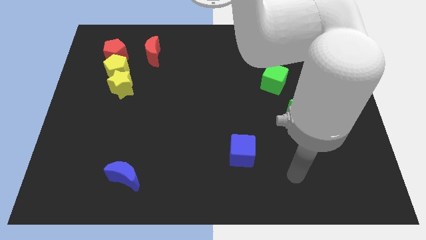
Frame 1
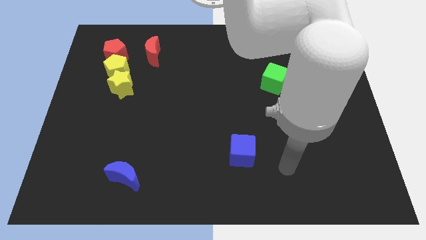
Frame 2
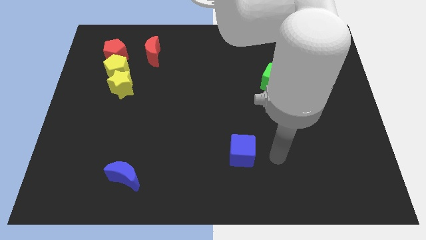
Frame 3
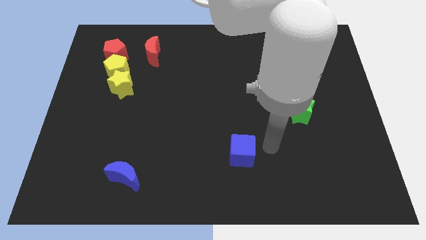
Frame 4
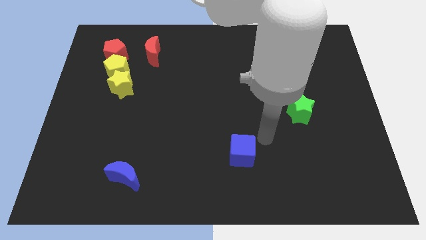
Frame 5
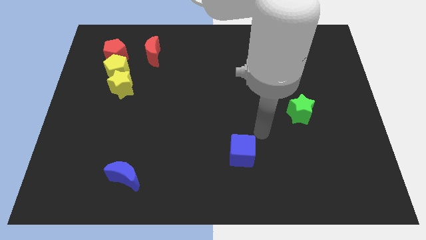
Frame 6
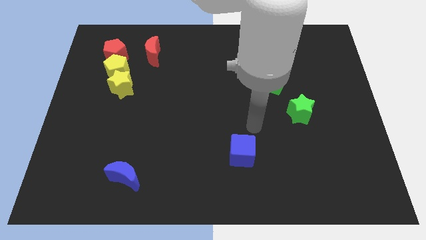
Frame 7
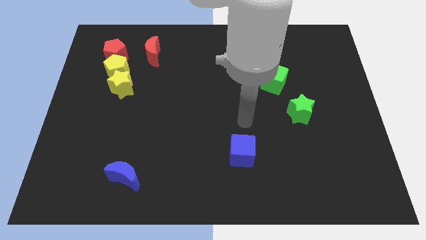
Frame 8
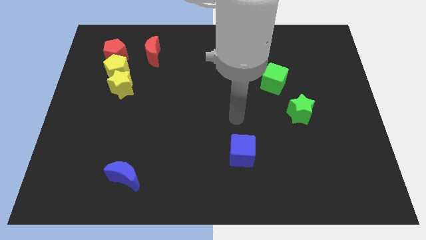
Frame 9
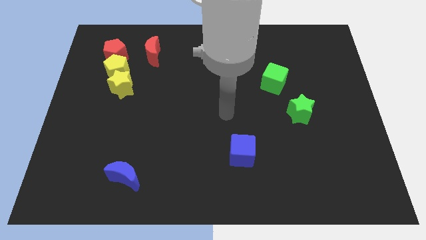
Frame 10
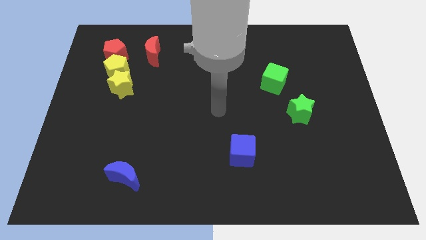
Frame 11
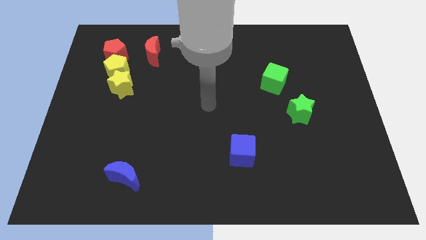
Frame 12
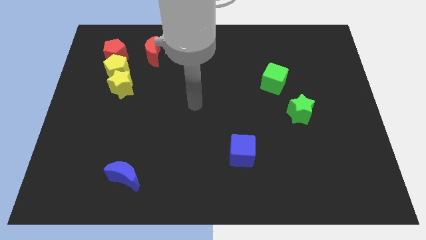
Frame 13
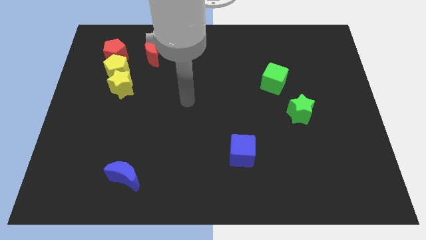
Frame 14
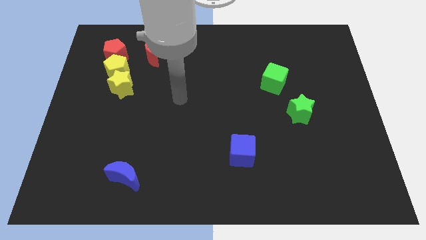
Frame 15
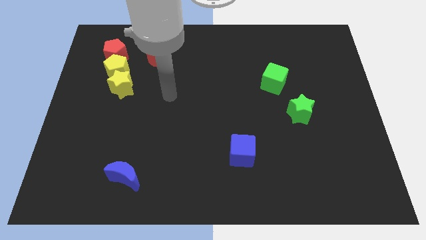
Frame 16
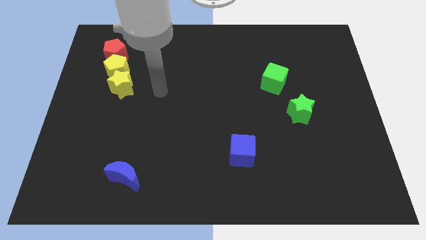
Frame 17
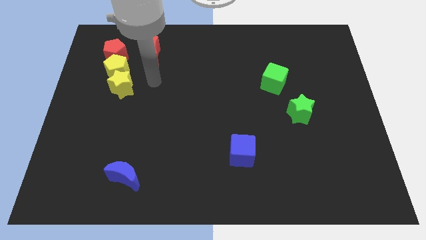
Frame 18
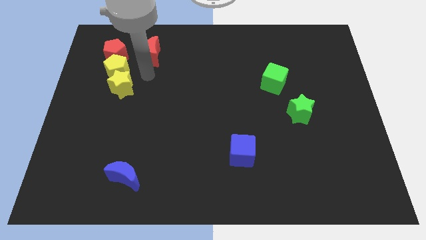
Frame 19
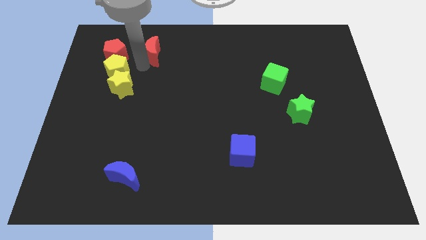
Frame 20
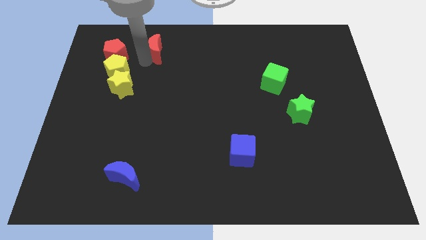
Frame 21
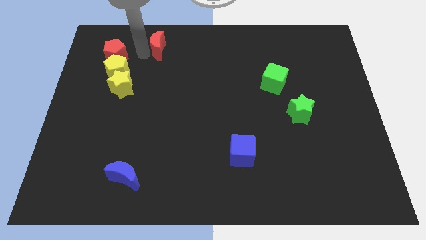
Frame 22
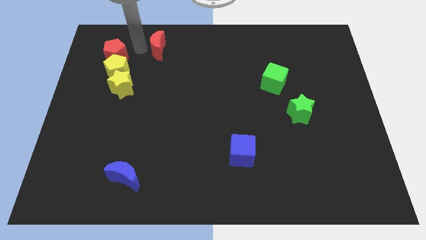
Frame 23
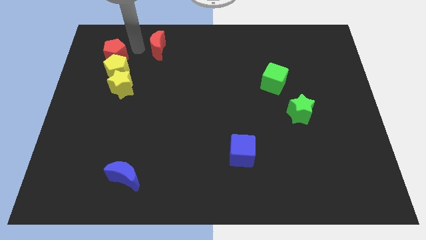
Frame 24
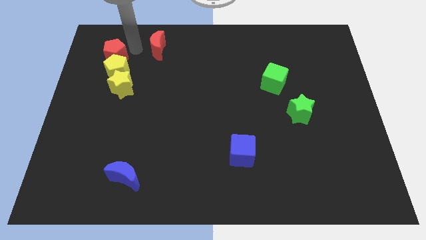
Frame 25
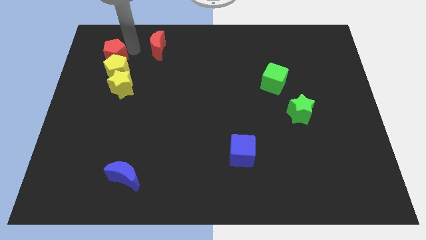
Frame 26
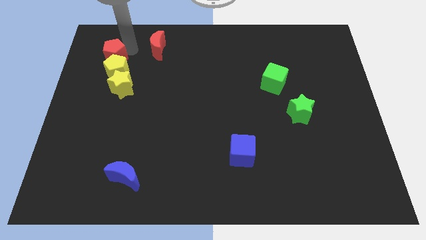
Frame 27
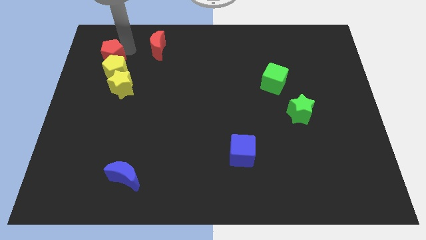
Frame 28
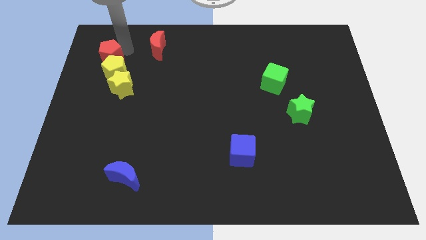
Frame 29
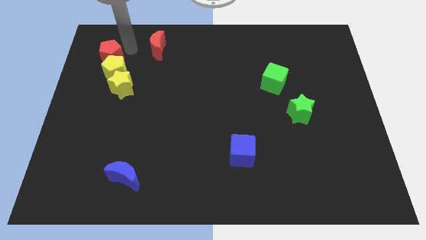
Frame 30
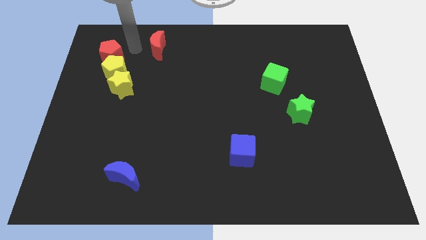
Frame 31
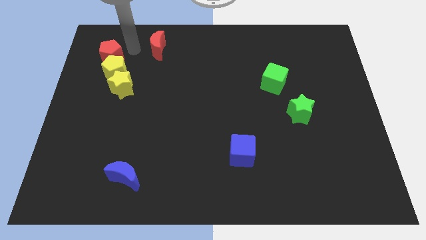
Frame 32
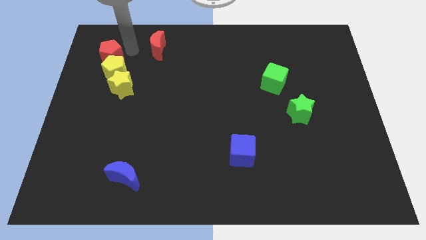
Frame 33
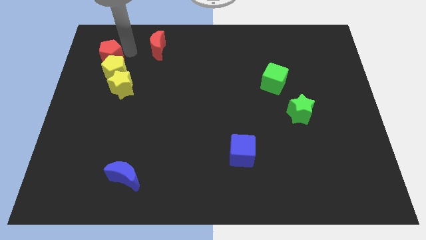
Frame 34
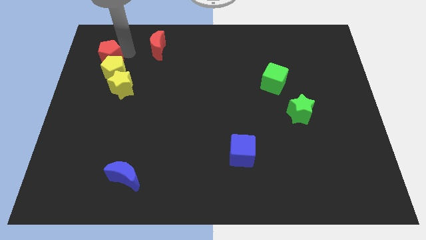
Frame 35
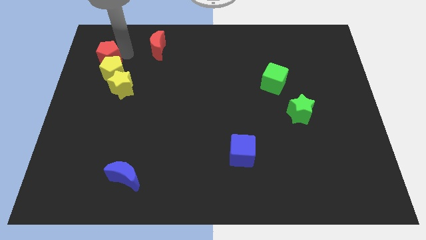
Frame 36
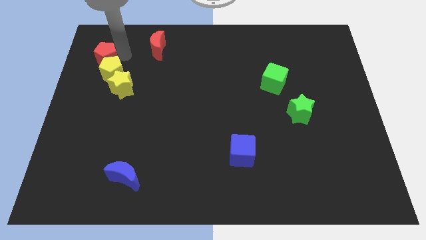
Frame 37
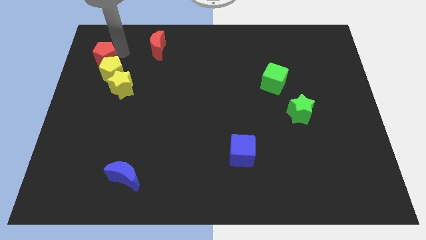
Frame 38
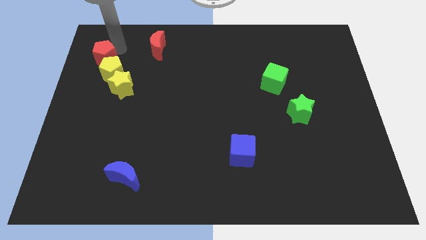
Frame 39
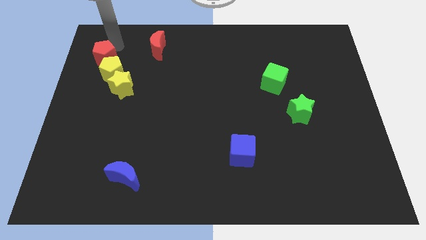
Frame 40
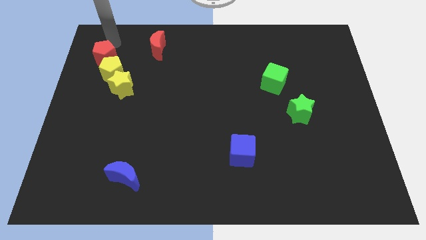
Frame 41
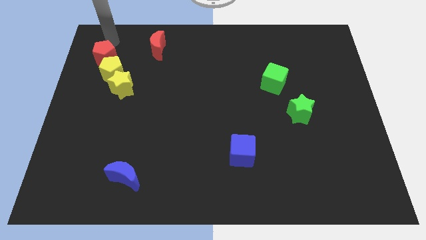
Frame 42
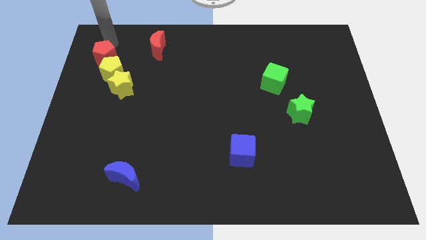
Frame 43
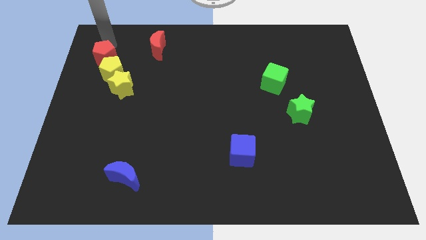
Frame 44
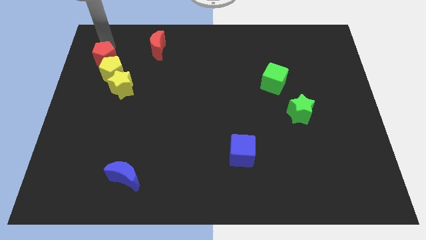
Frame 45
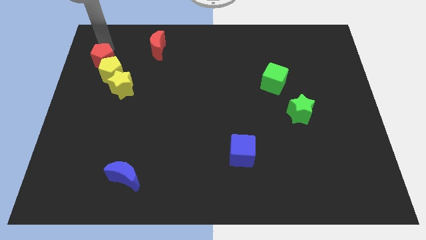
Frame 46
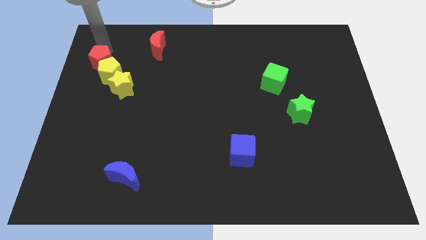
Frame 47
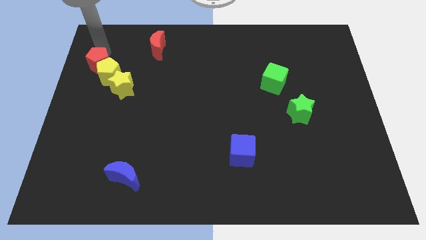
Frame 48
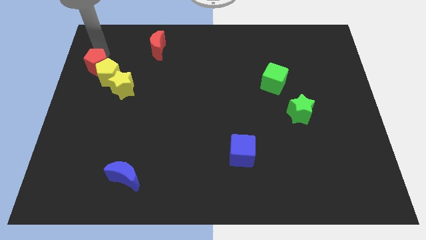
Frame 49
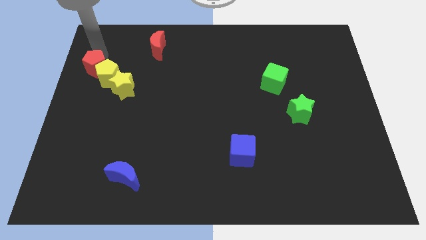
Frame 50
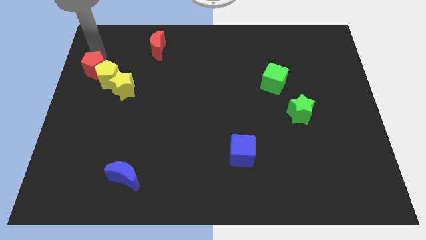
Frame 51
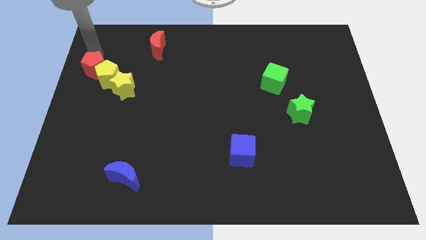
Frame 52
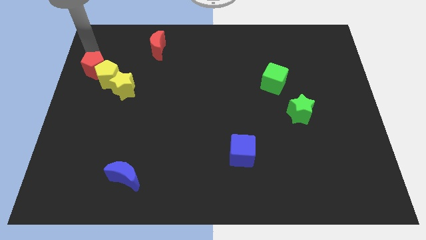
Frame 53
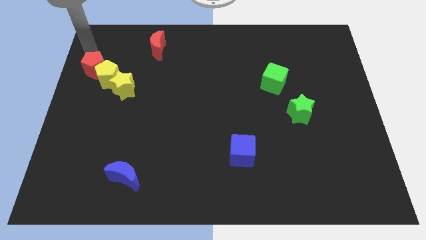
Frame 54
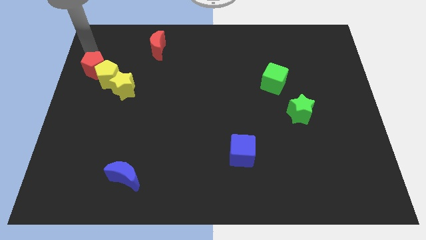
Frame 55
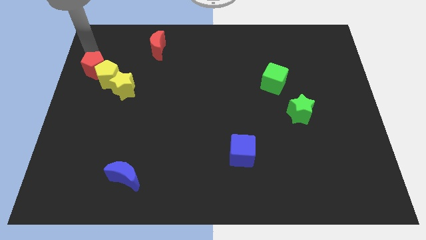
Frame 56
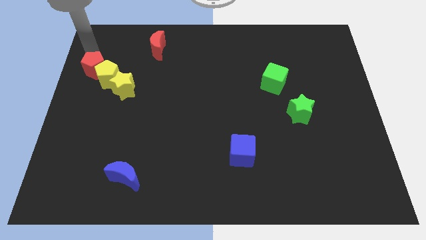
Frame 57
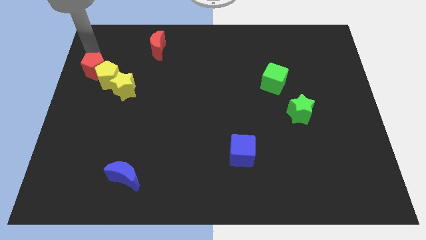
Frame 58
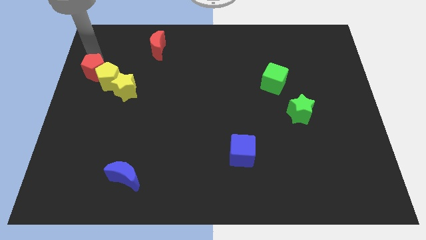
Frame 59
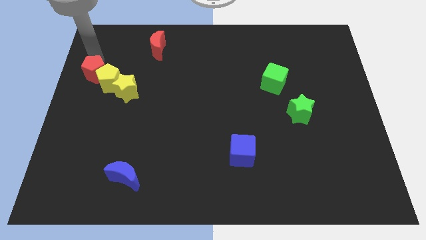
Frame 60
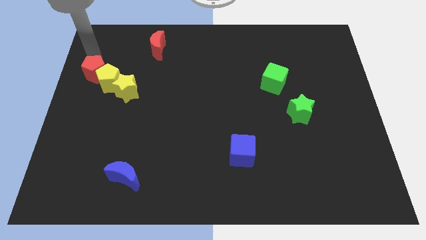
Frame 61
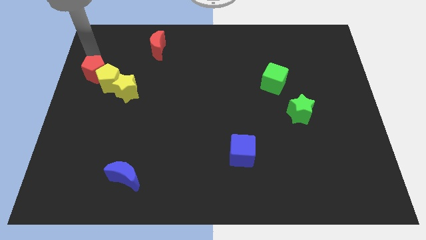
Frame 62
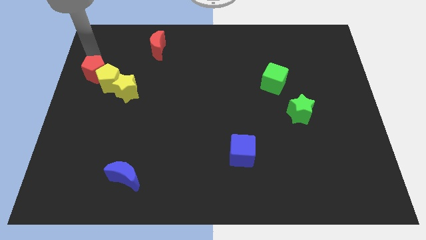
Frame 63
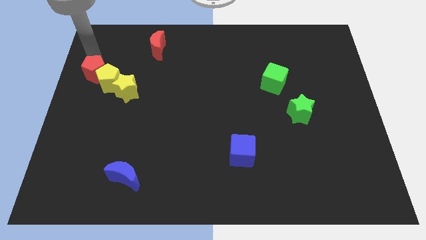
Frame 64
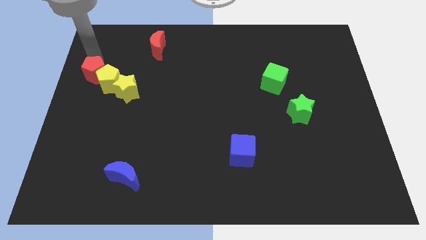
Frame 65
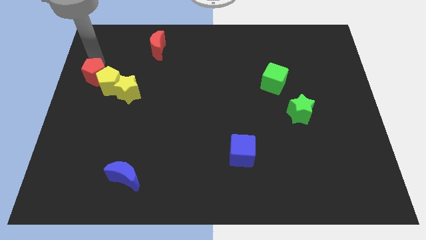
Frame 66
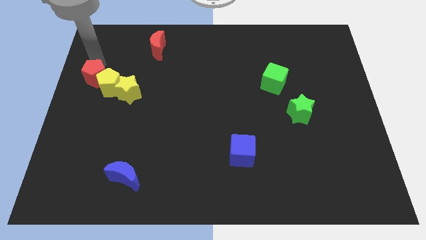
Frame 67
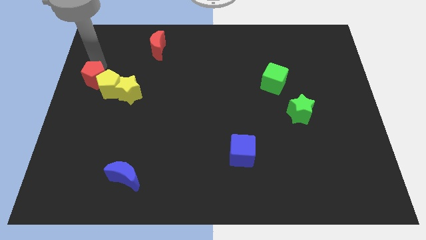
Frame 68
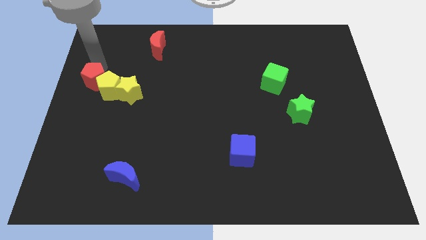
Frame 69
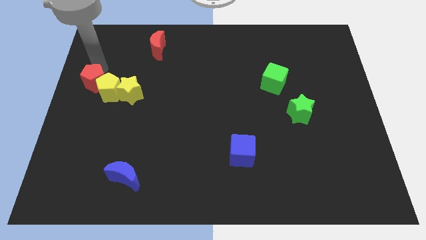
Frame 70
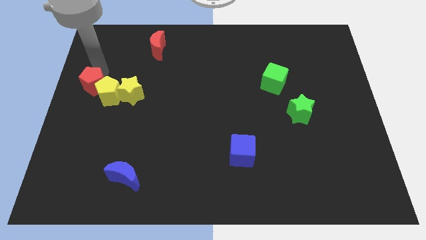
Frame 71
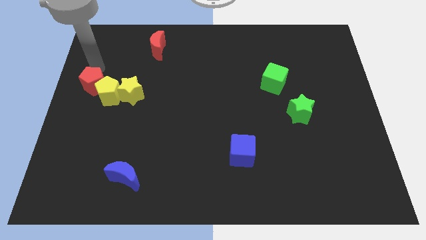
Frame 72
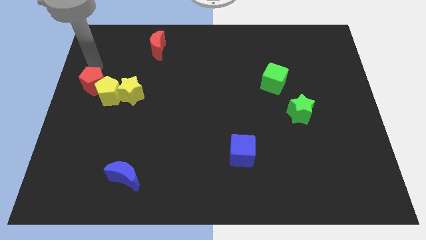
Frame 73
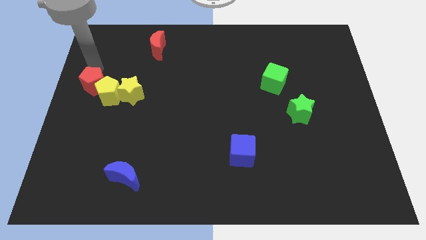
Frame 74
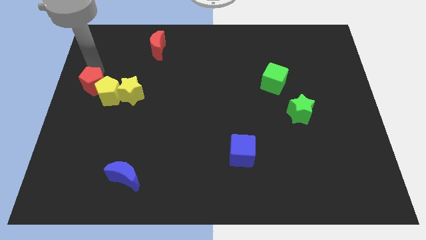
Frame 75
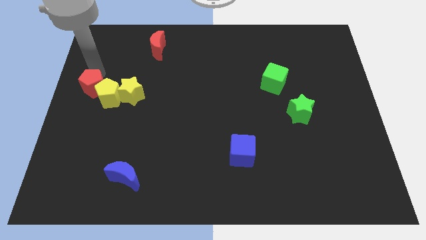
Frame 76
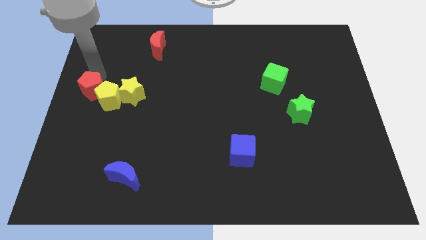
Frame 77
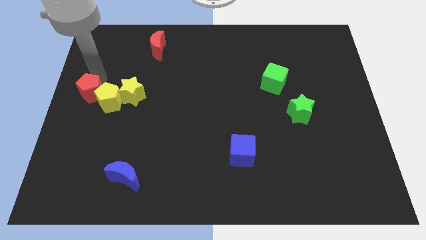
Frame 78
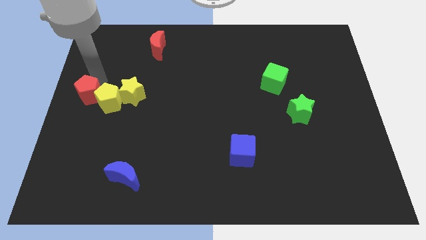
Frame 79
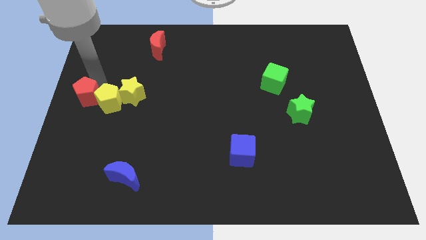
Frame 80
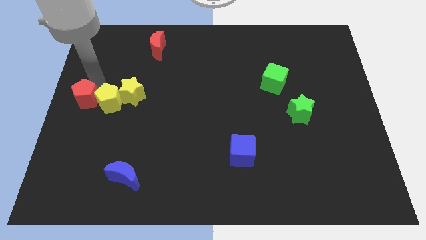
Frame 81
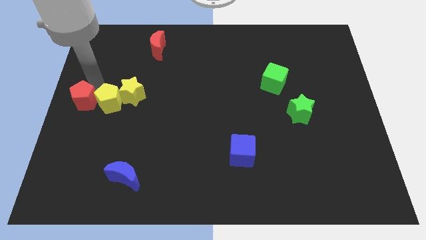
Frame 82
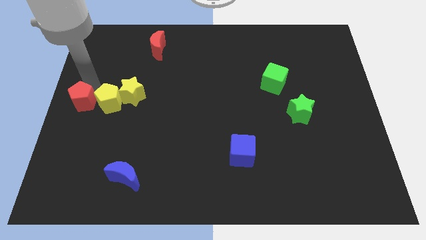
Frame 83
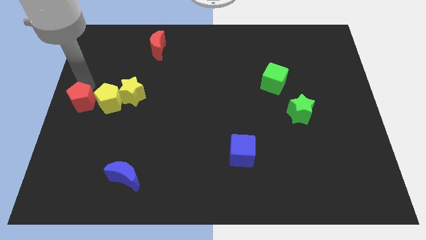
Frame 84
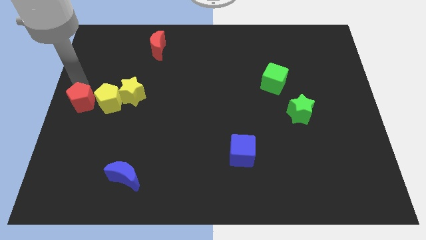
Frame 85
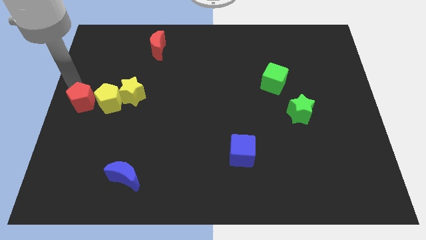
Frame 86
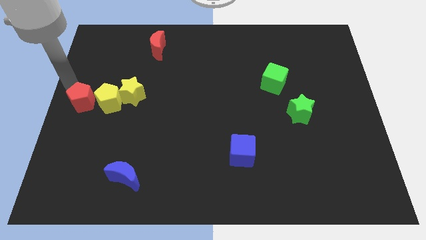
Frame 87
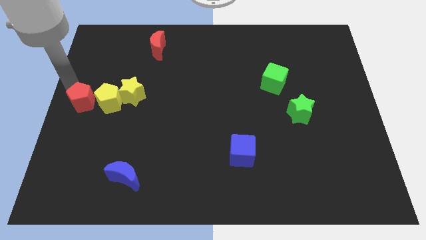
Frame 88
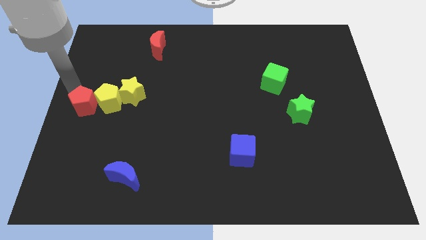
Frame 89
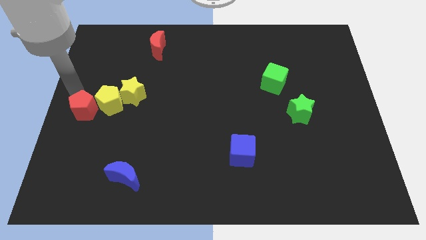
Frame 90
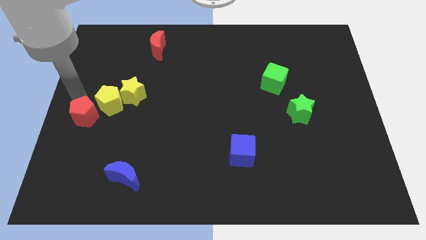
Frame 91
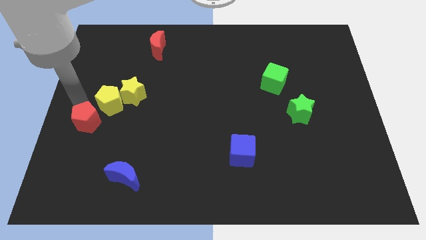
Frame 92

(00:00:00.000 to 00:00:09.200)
slide the red pentagon downwards
